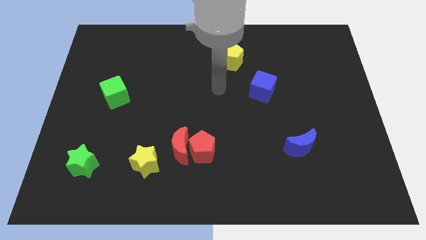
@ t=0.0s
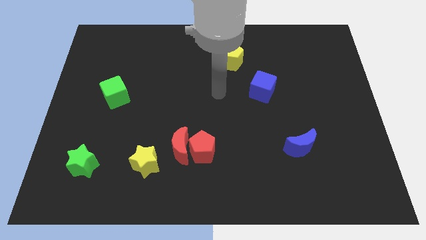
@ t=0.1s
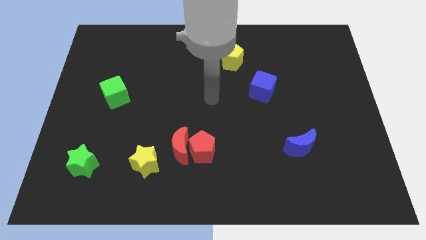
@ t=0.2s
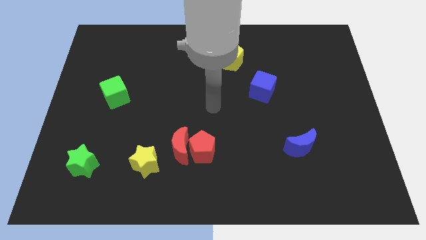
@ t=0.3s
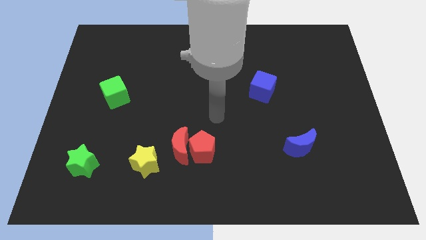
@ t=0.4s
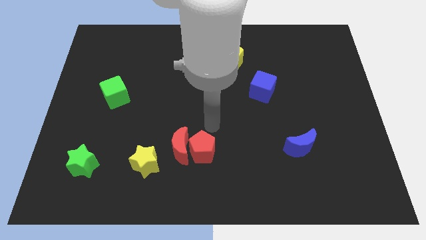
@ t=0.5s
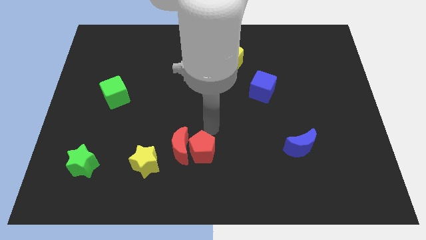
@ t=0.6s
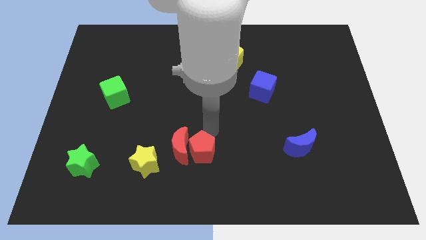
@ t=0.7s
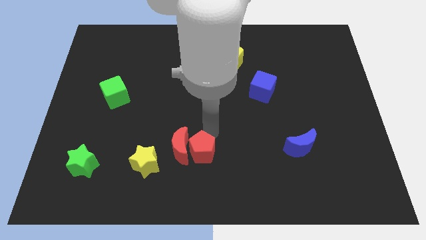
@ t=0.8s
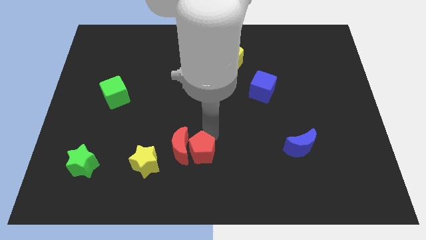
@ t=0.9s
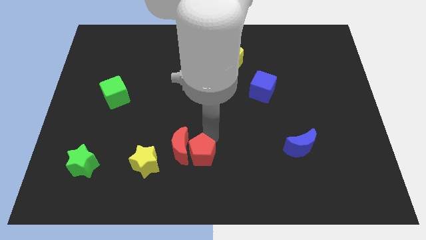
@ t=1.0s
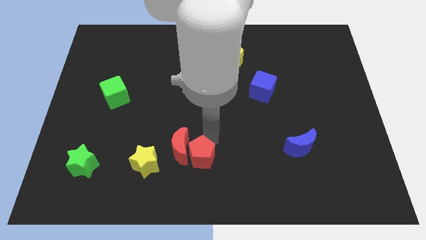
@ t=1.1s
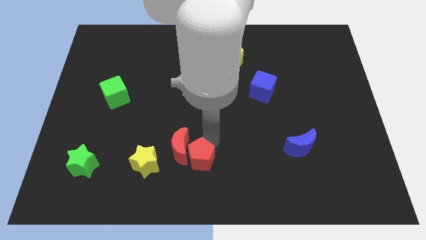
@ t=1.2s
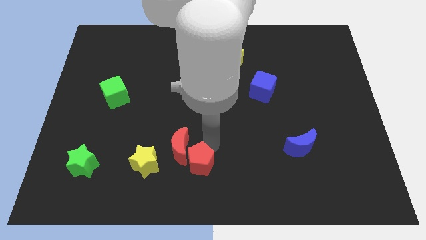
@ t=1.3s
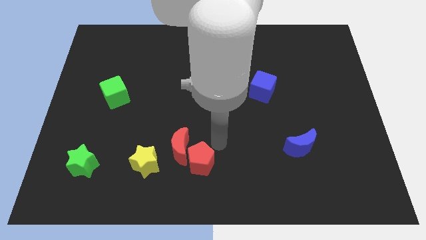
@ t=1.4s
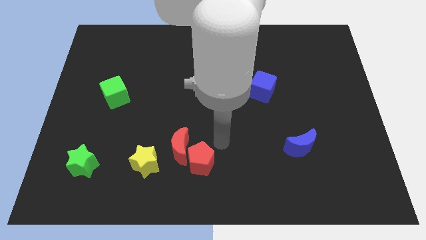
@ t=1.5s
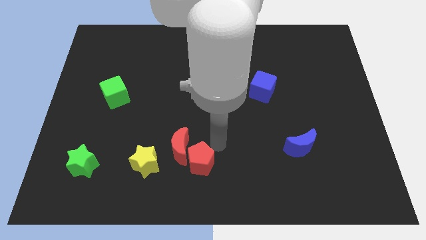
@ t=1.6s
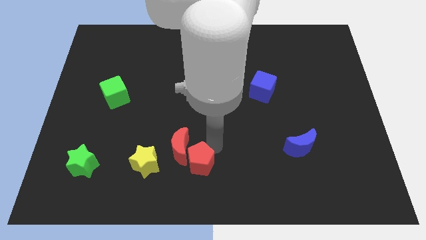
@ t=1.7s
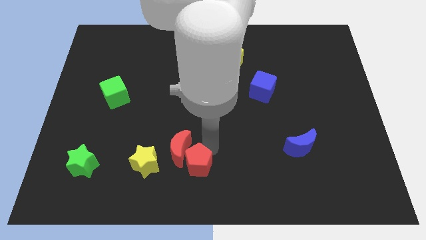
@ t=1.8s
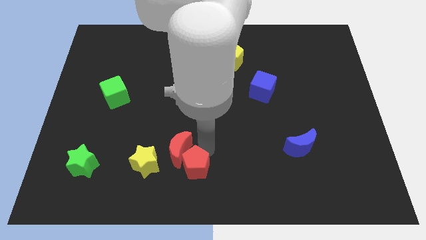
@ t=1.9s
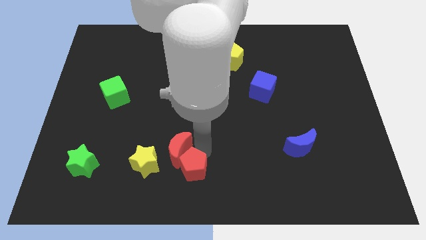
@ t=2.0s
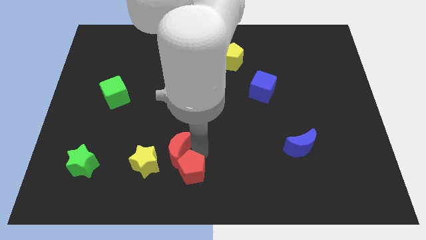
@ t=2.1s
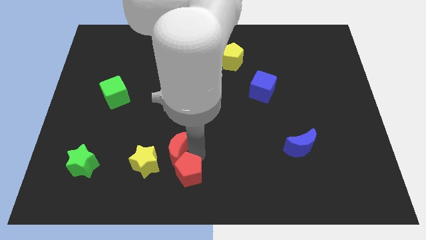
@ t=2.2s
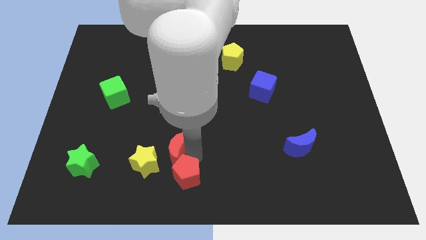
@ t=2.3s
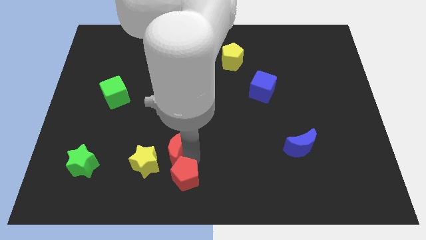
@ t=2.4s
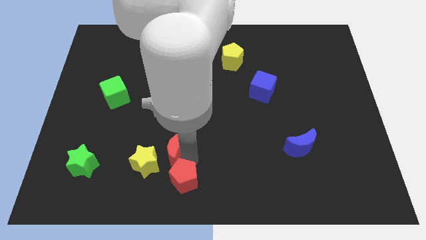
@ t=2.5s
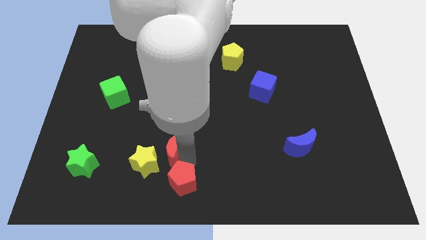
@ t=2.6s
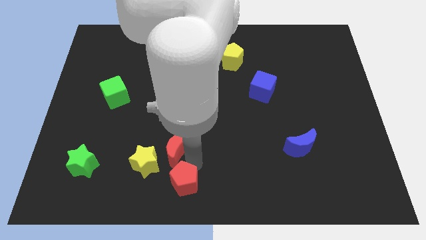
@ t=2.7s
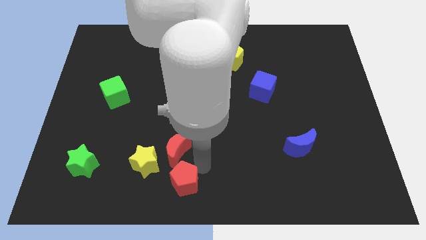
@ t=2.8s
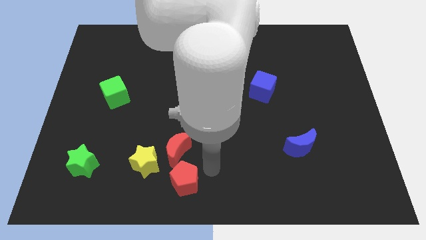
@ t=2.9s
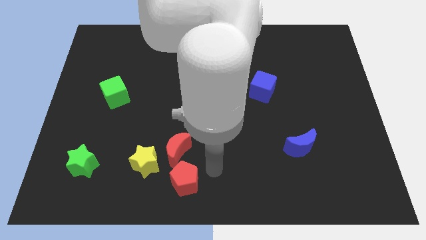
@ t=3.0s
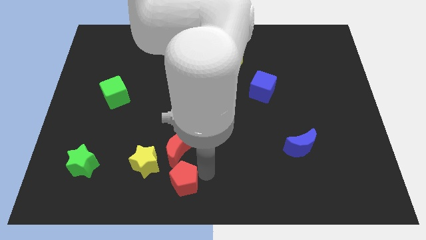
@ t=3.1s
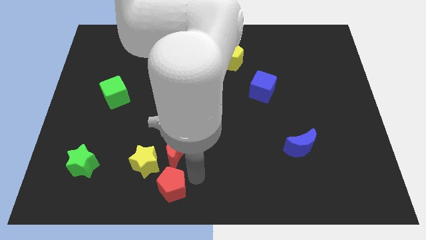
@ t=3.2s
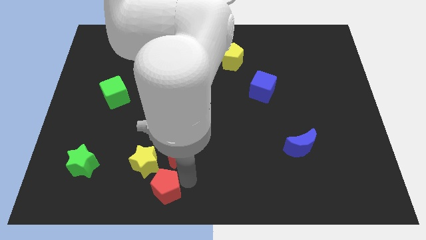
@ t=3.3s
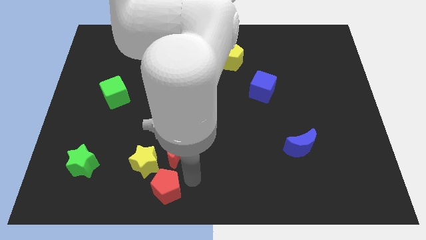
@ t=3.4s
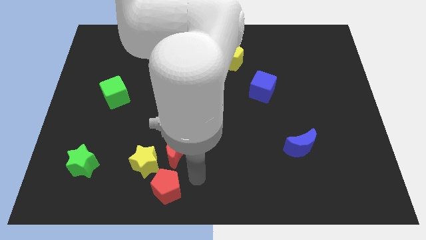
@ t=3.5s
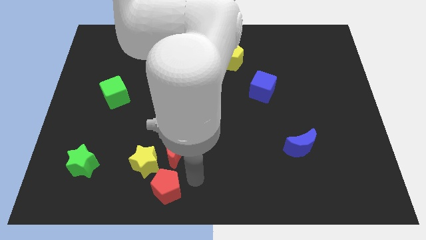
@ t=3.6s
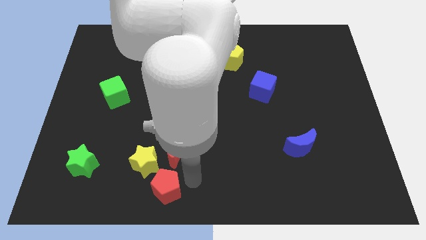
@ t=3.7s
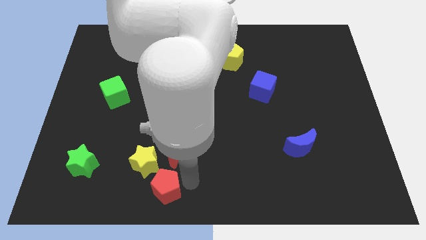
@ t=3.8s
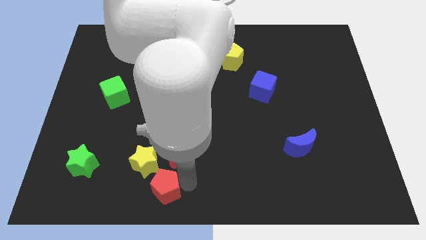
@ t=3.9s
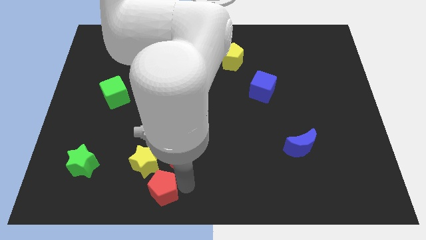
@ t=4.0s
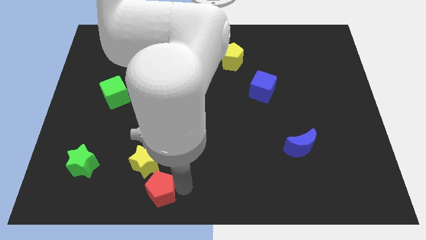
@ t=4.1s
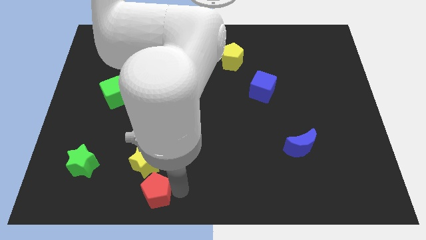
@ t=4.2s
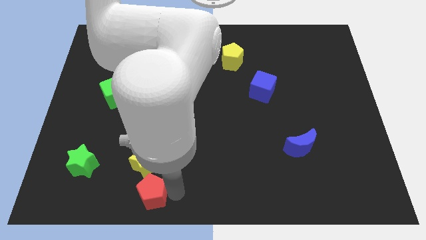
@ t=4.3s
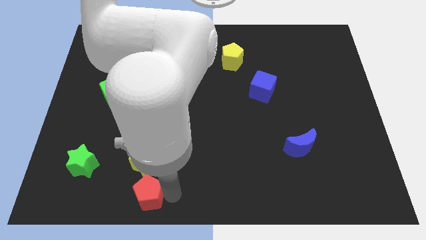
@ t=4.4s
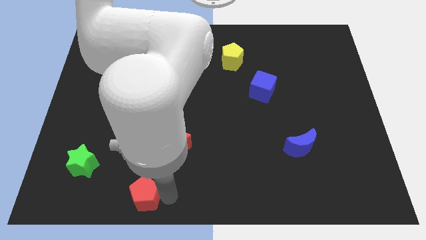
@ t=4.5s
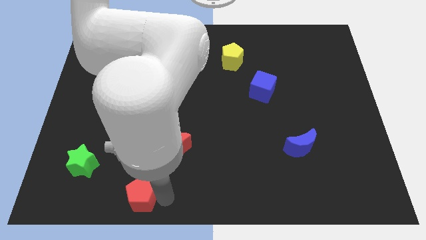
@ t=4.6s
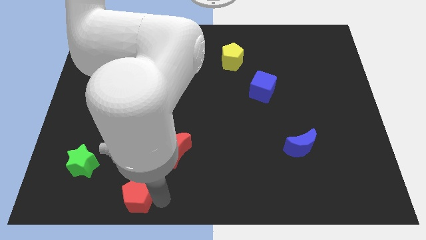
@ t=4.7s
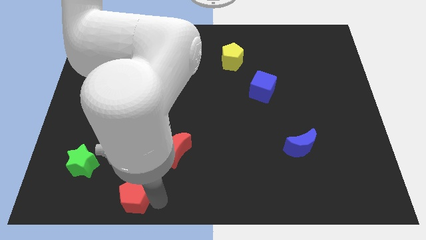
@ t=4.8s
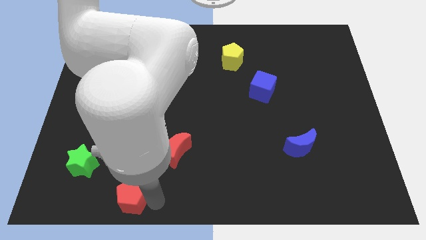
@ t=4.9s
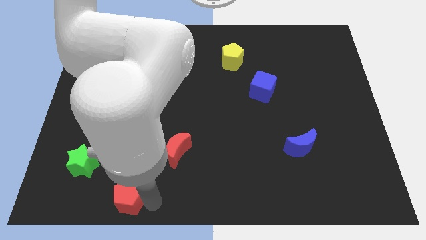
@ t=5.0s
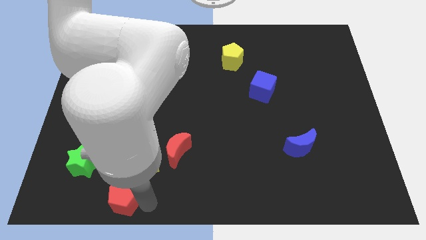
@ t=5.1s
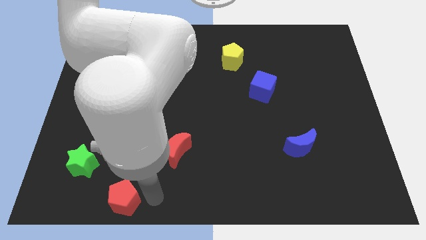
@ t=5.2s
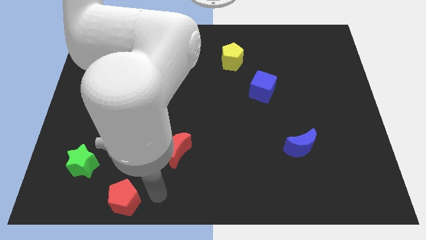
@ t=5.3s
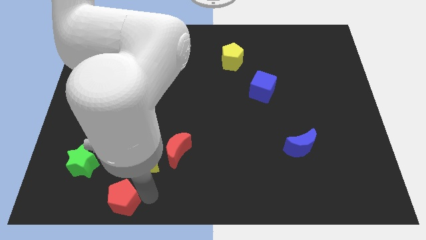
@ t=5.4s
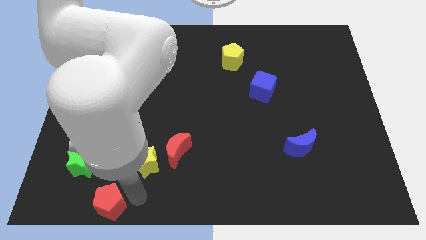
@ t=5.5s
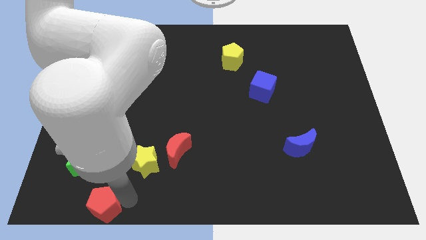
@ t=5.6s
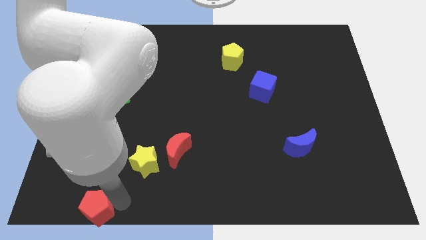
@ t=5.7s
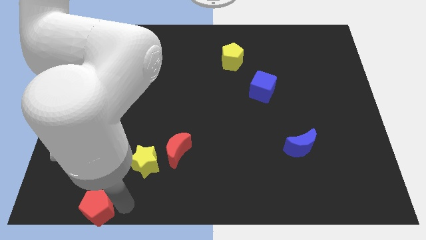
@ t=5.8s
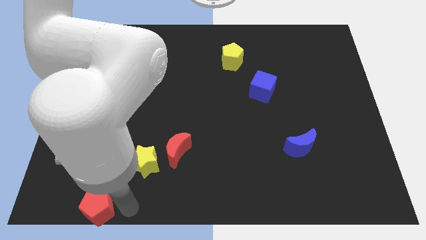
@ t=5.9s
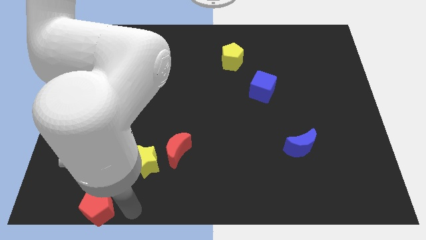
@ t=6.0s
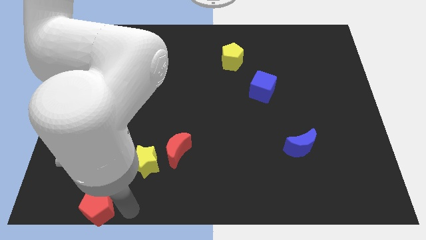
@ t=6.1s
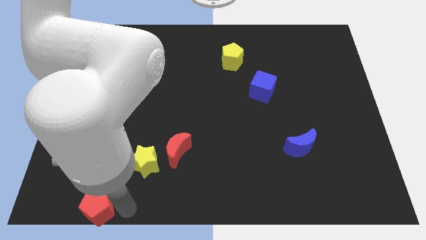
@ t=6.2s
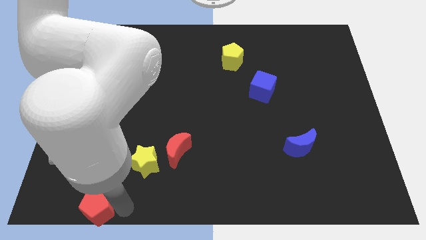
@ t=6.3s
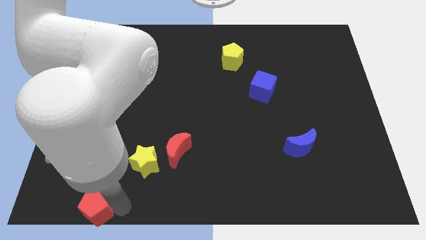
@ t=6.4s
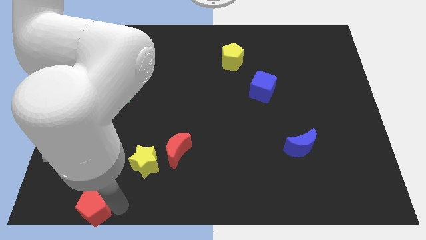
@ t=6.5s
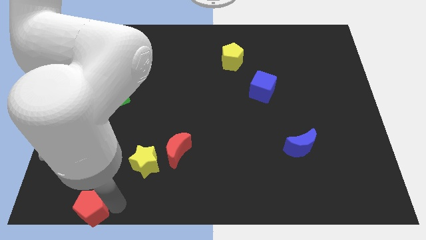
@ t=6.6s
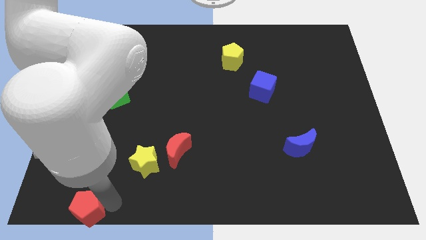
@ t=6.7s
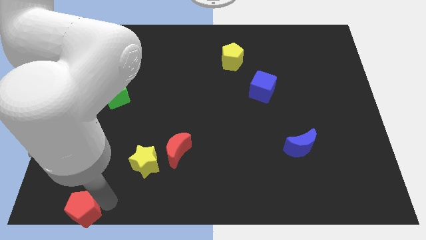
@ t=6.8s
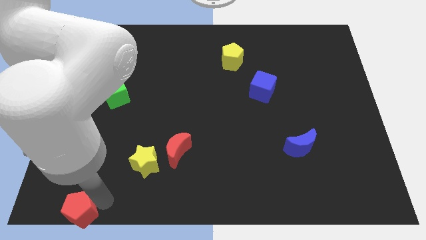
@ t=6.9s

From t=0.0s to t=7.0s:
move the red pentagon to the lower left corner
